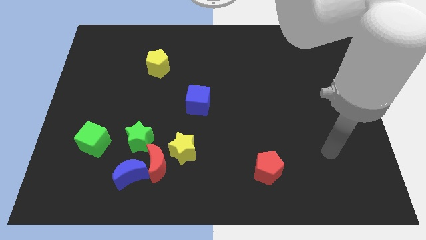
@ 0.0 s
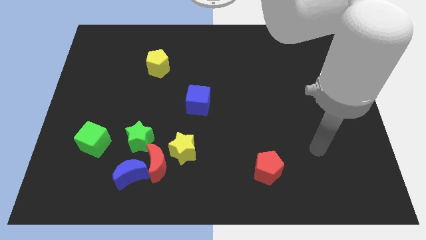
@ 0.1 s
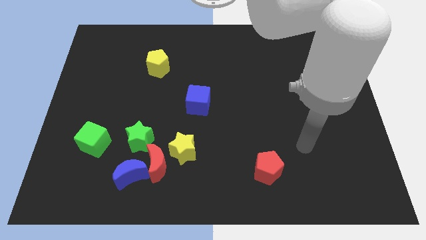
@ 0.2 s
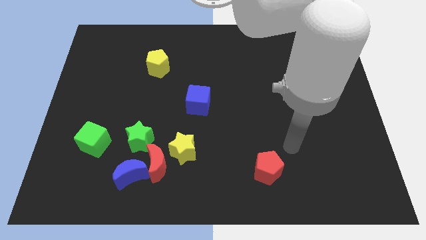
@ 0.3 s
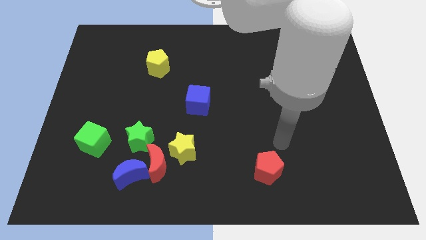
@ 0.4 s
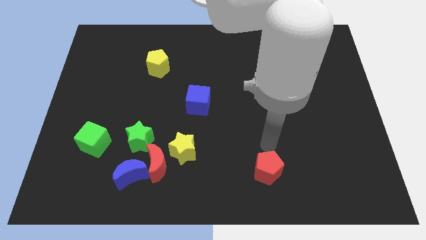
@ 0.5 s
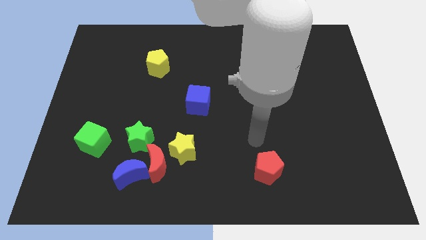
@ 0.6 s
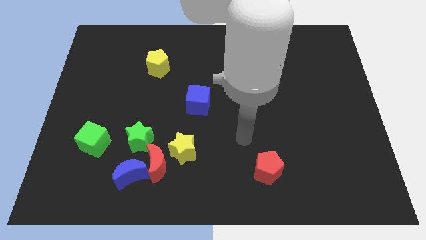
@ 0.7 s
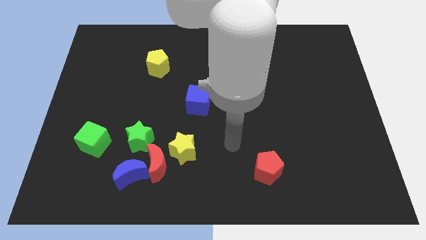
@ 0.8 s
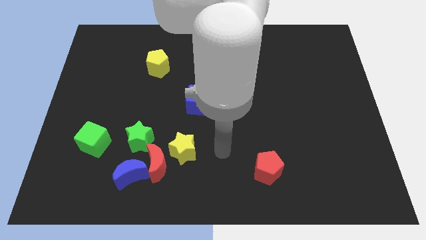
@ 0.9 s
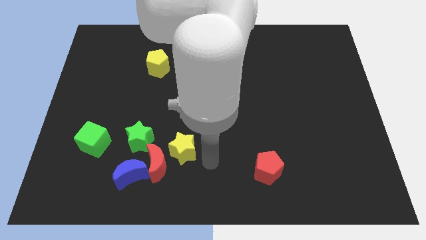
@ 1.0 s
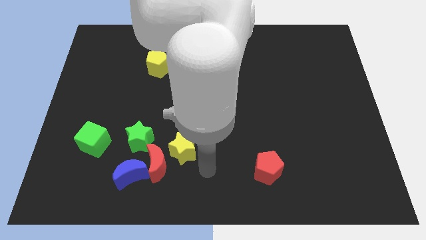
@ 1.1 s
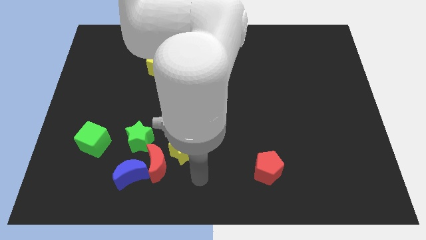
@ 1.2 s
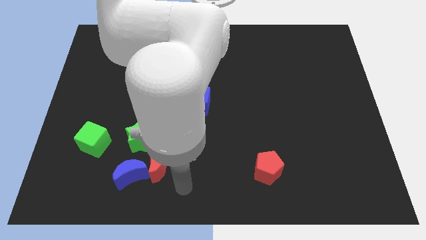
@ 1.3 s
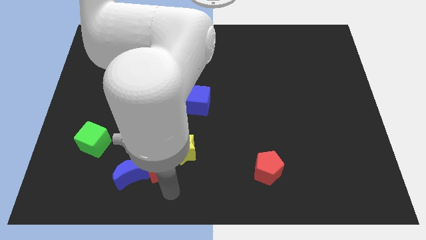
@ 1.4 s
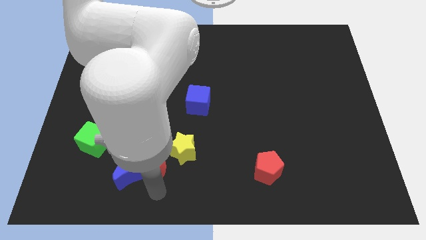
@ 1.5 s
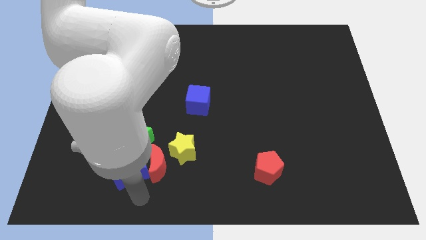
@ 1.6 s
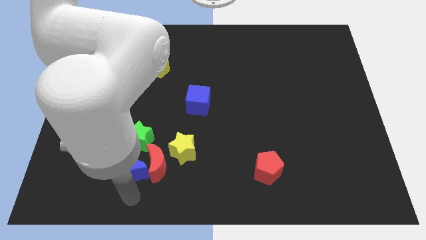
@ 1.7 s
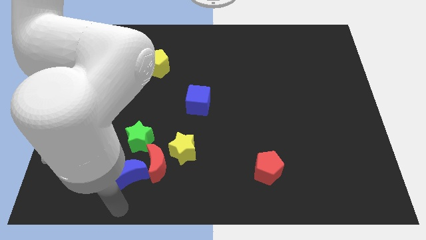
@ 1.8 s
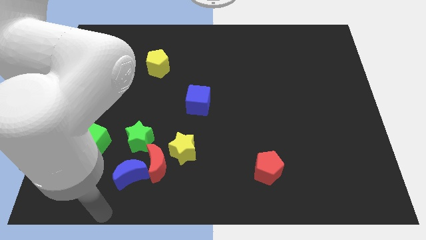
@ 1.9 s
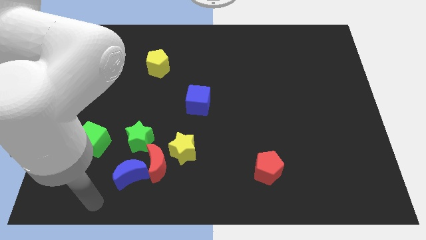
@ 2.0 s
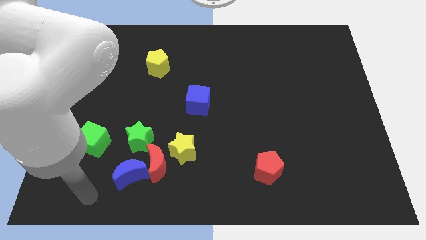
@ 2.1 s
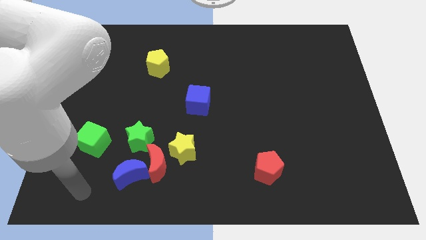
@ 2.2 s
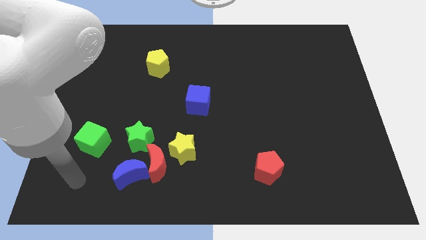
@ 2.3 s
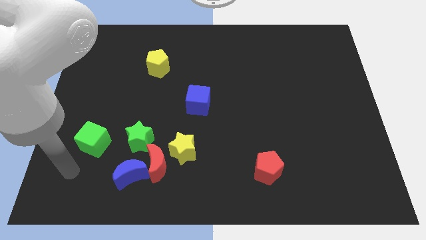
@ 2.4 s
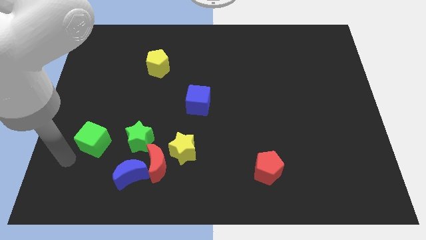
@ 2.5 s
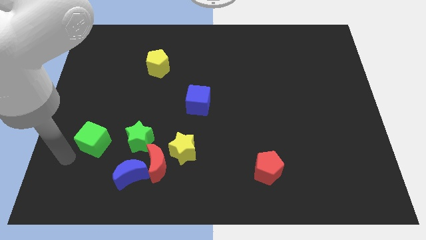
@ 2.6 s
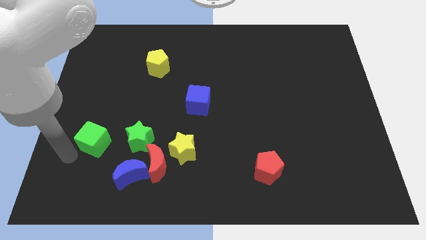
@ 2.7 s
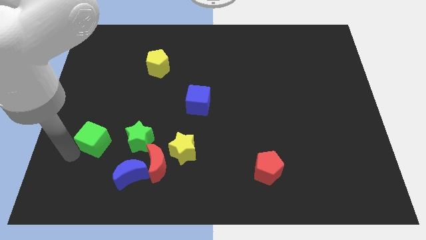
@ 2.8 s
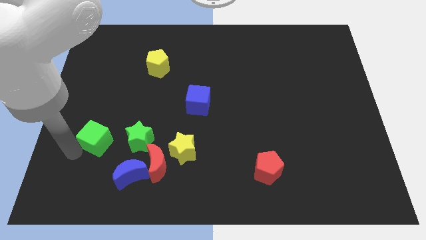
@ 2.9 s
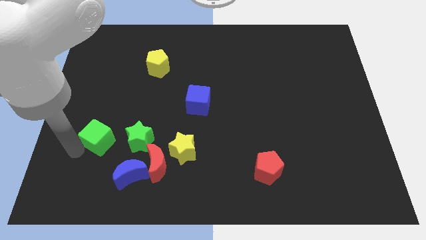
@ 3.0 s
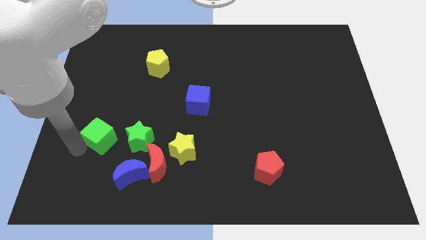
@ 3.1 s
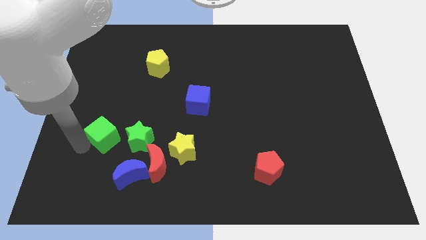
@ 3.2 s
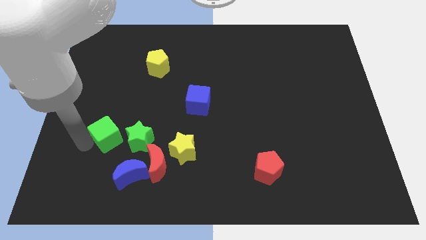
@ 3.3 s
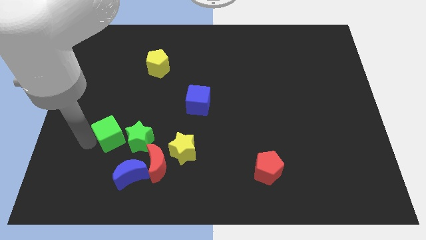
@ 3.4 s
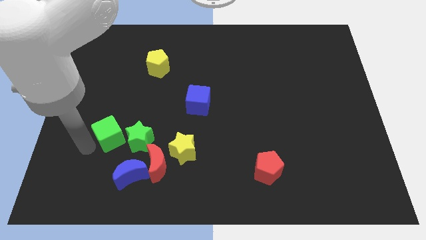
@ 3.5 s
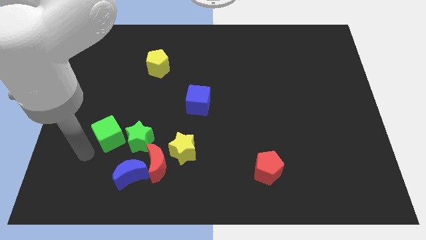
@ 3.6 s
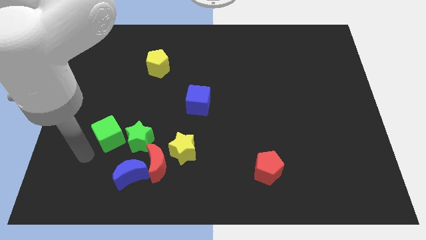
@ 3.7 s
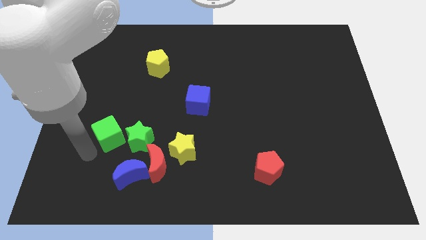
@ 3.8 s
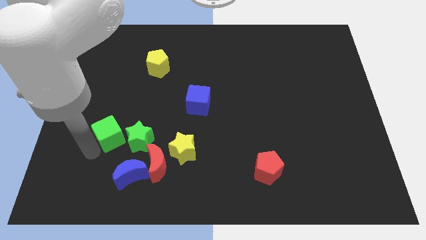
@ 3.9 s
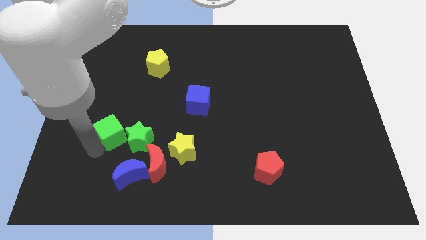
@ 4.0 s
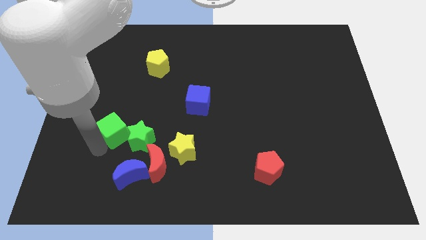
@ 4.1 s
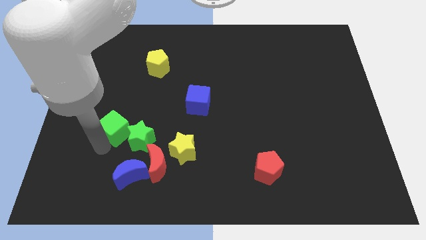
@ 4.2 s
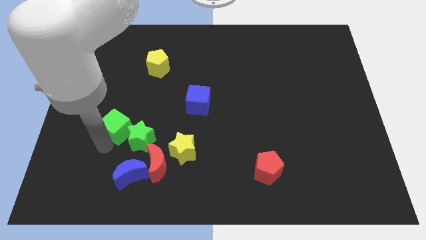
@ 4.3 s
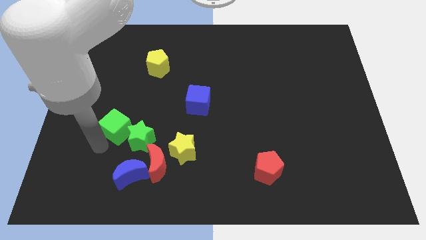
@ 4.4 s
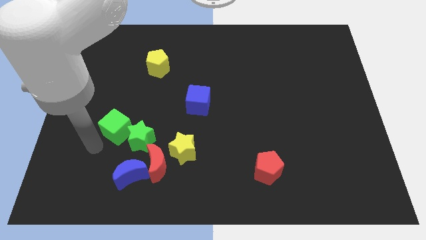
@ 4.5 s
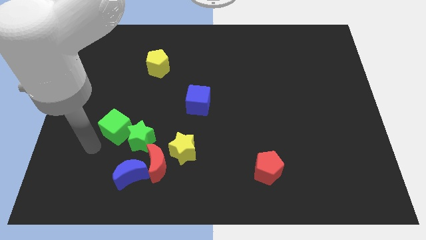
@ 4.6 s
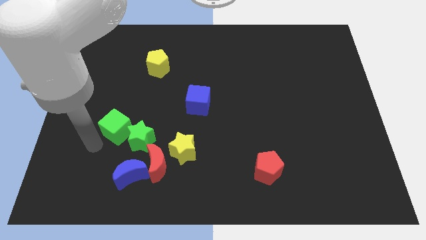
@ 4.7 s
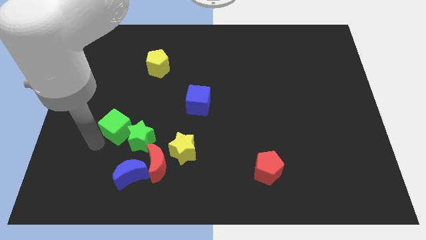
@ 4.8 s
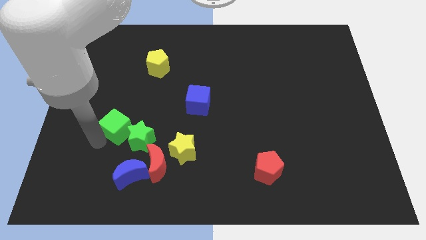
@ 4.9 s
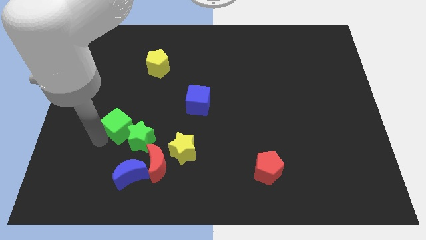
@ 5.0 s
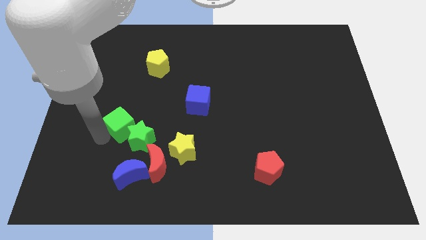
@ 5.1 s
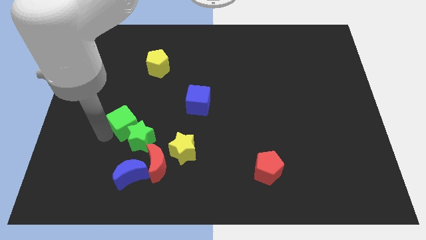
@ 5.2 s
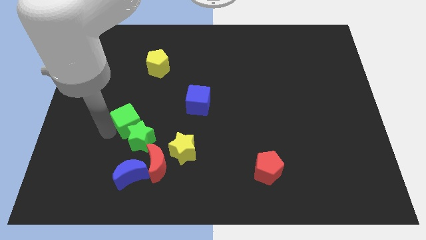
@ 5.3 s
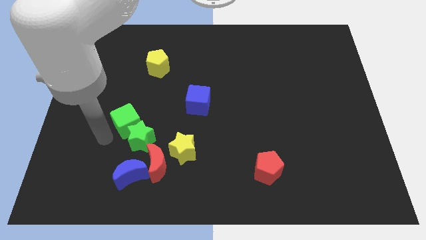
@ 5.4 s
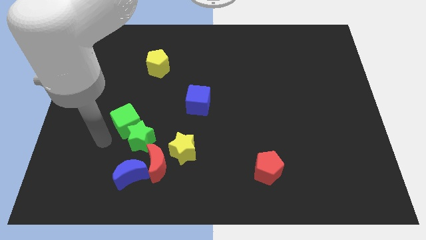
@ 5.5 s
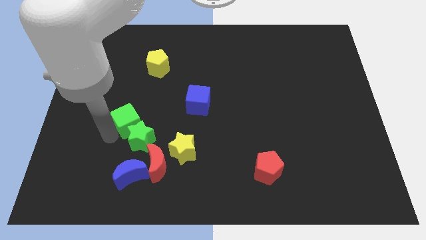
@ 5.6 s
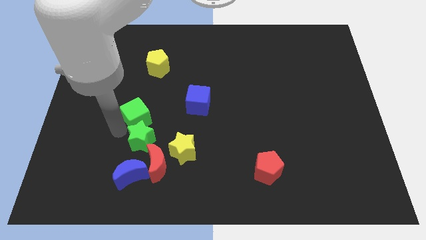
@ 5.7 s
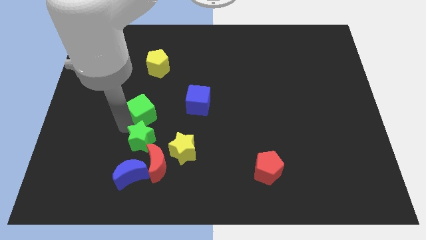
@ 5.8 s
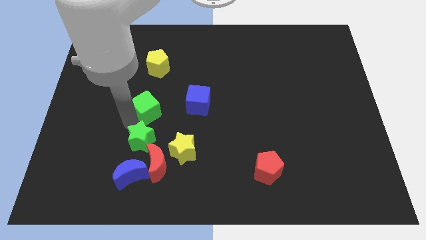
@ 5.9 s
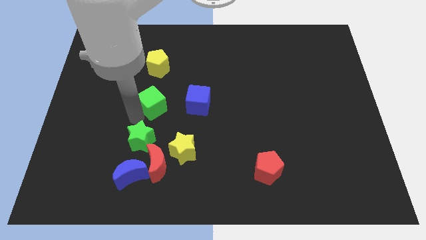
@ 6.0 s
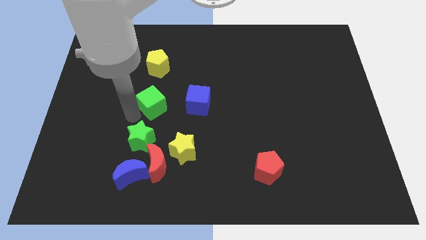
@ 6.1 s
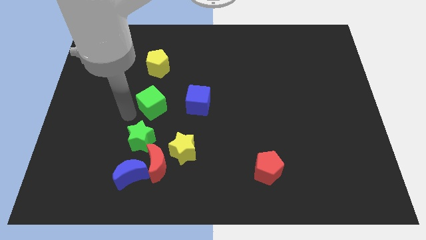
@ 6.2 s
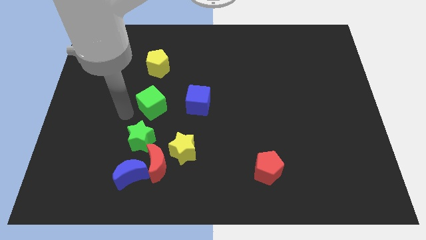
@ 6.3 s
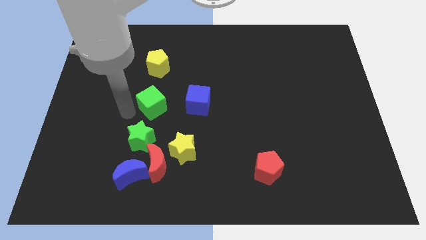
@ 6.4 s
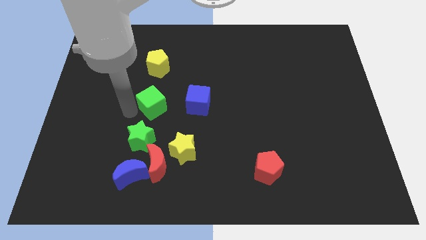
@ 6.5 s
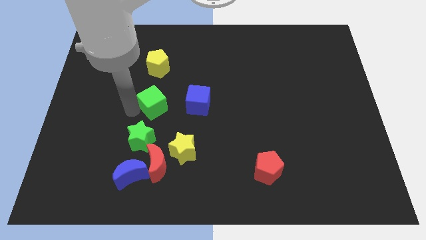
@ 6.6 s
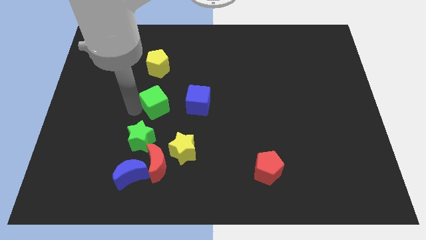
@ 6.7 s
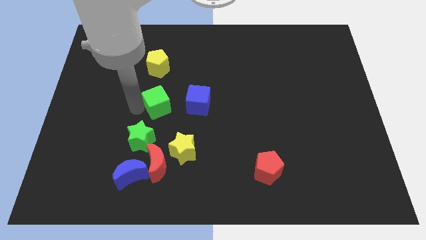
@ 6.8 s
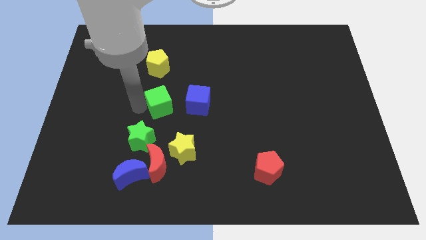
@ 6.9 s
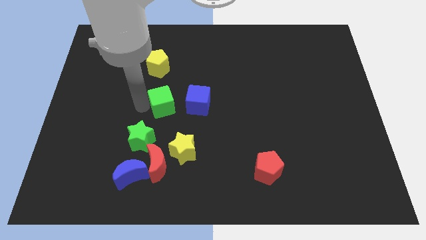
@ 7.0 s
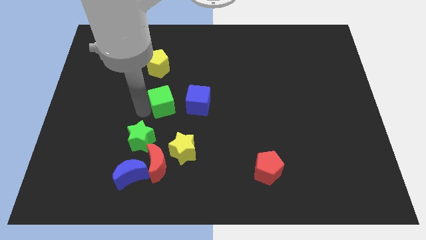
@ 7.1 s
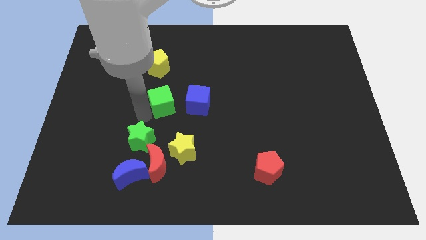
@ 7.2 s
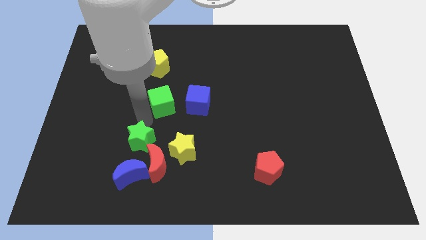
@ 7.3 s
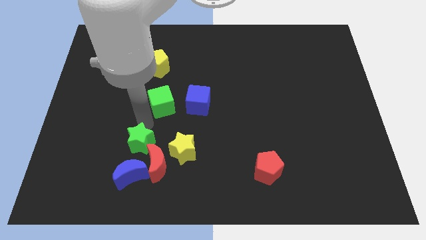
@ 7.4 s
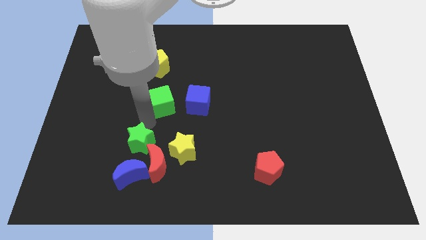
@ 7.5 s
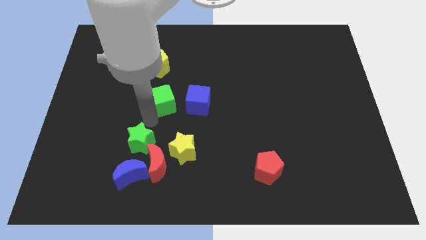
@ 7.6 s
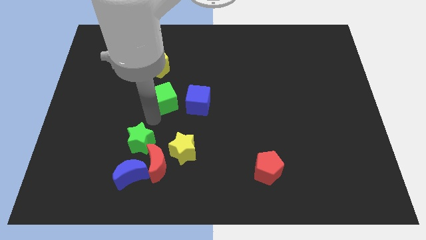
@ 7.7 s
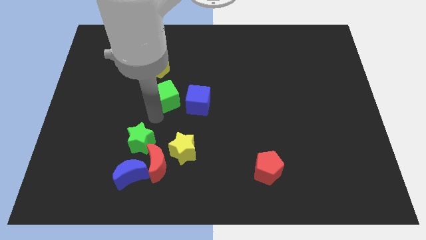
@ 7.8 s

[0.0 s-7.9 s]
slide the green cube to the top left of the blue cube
